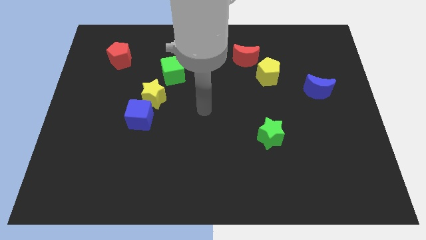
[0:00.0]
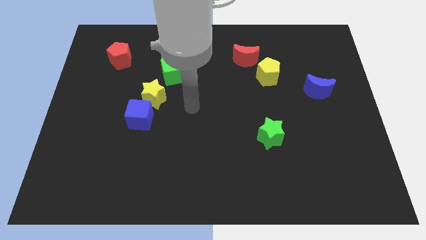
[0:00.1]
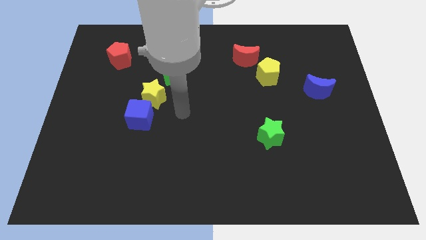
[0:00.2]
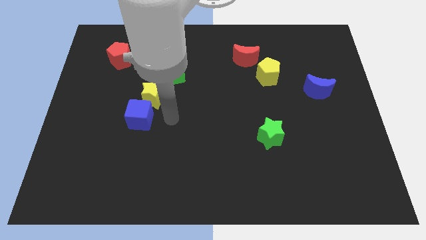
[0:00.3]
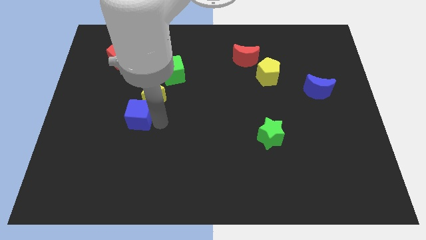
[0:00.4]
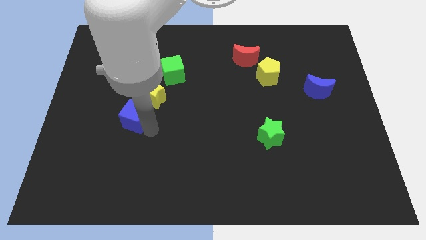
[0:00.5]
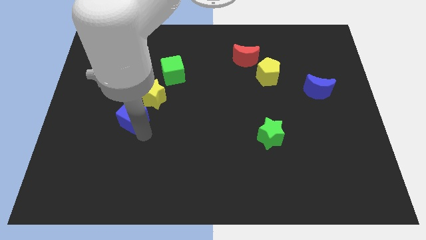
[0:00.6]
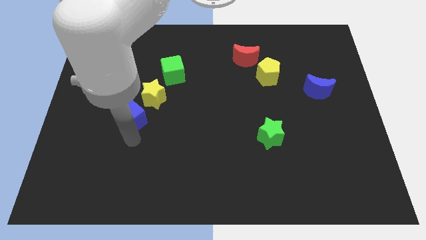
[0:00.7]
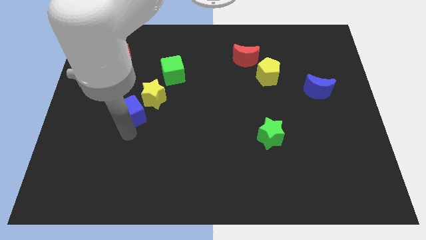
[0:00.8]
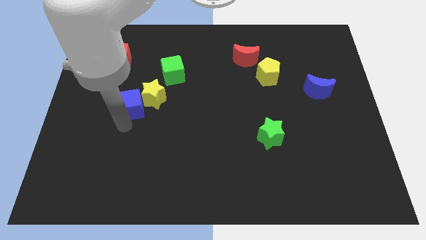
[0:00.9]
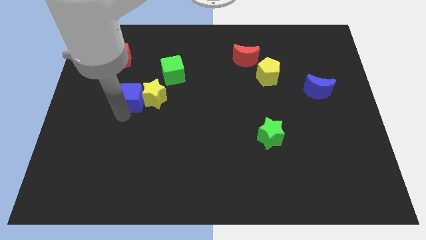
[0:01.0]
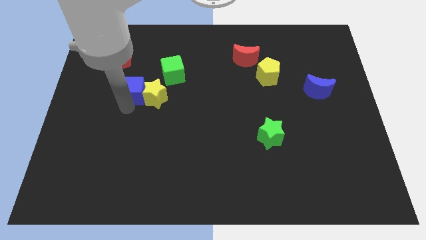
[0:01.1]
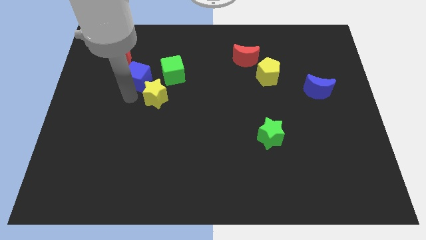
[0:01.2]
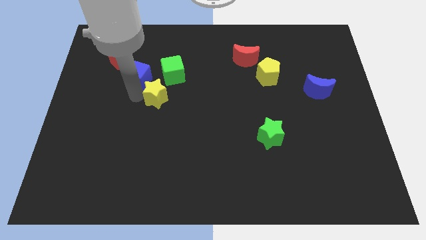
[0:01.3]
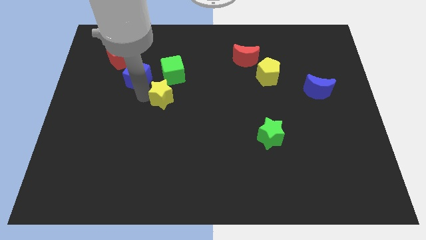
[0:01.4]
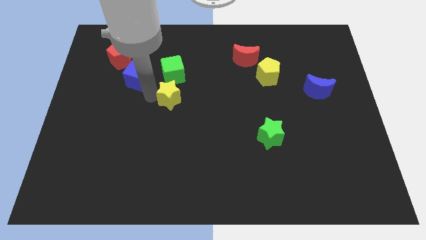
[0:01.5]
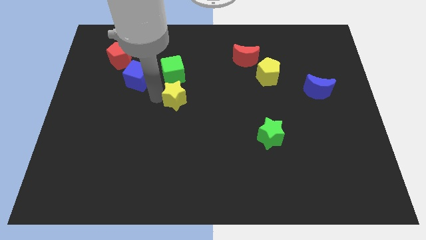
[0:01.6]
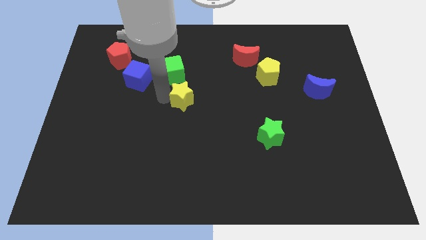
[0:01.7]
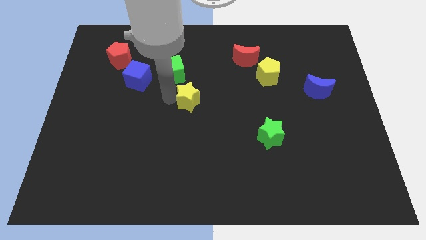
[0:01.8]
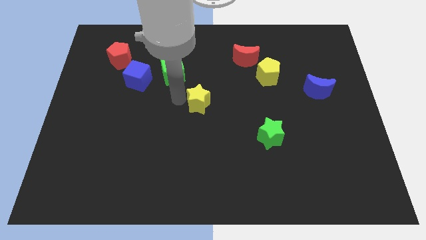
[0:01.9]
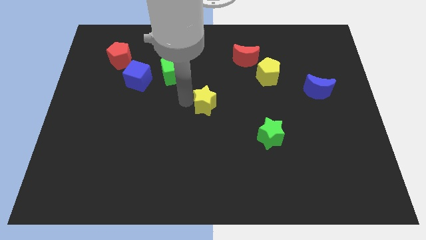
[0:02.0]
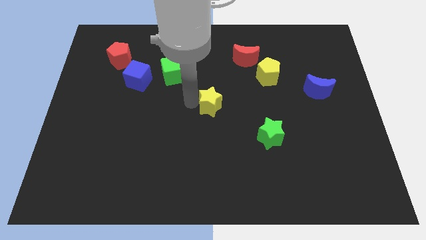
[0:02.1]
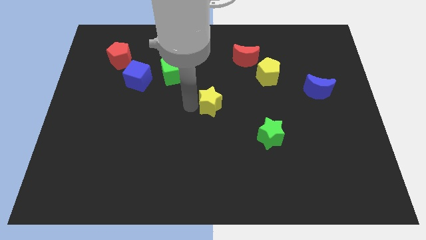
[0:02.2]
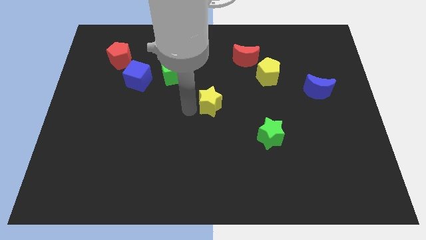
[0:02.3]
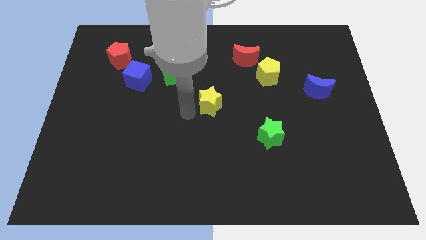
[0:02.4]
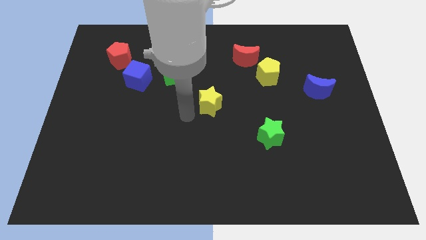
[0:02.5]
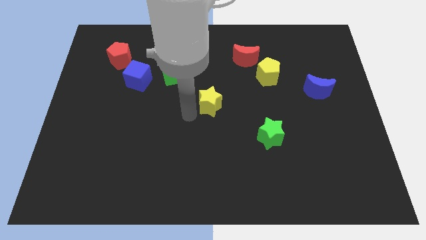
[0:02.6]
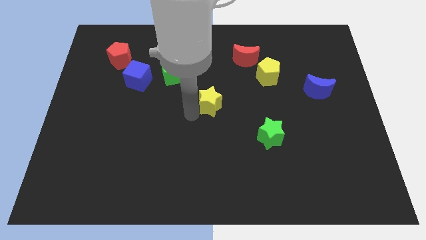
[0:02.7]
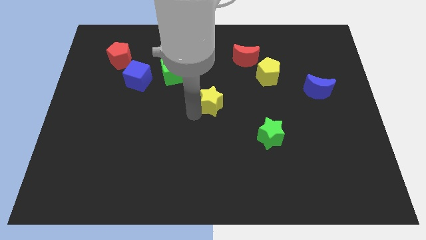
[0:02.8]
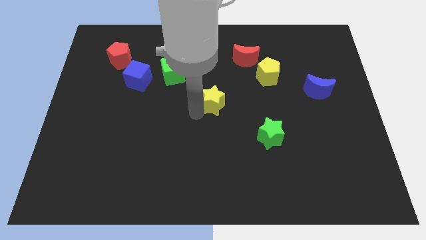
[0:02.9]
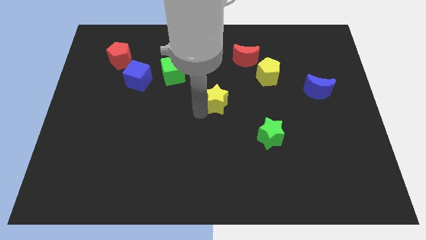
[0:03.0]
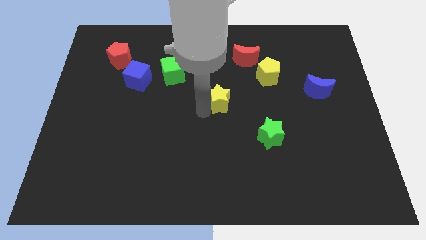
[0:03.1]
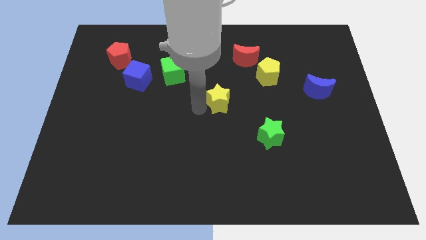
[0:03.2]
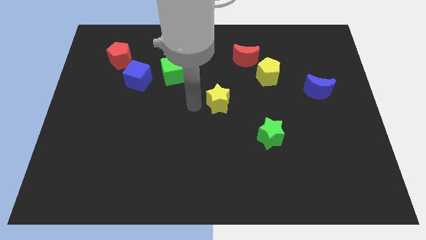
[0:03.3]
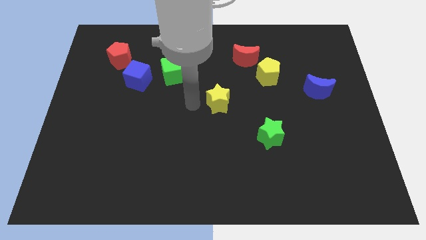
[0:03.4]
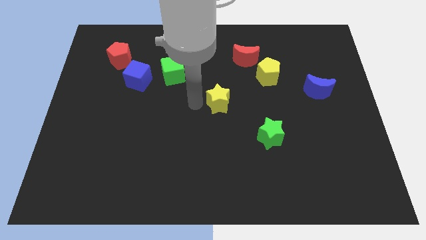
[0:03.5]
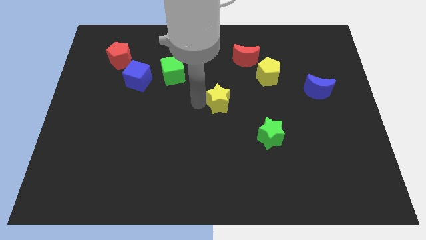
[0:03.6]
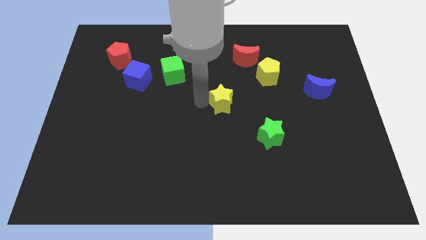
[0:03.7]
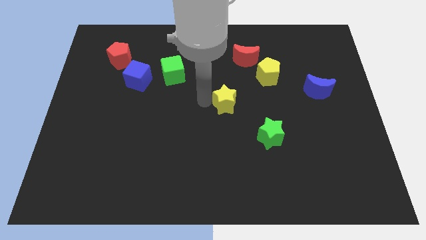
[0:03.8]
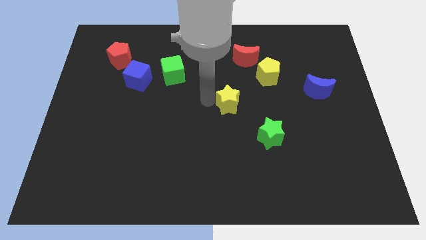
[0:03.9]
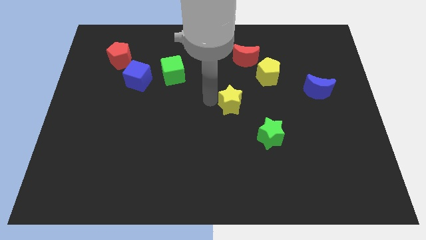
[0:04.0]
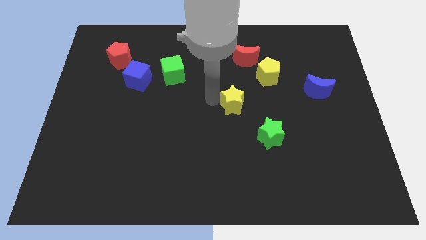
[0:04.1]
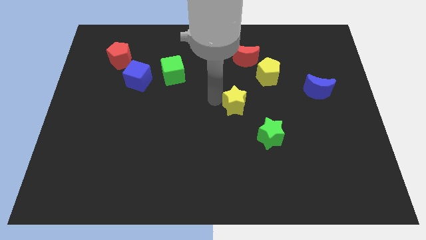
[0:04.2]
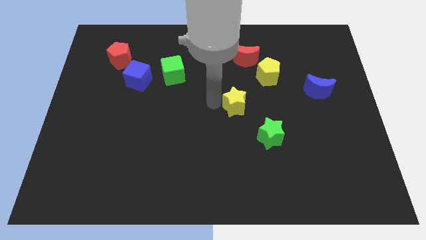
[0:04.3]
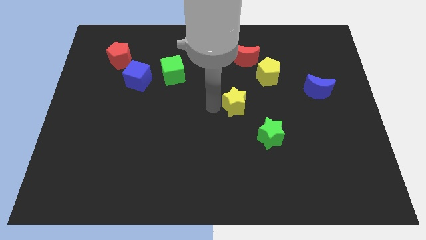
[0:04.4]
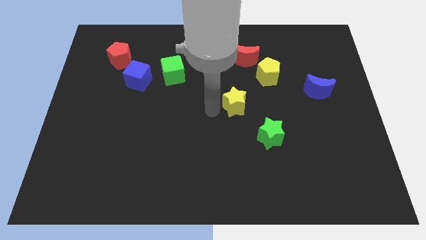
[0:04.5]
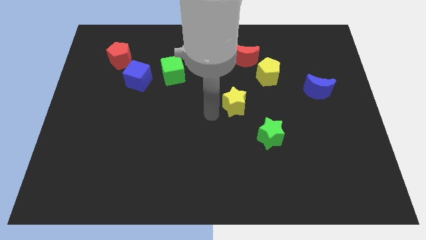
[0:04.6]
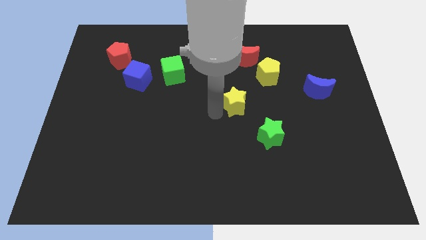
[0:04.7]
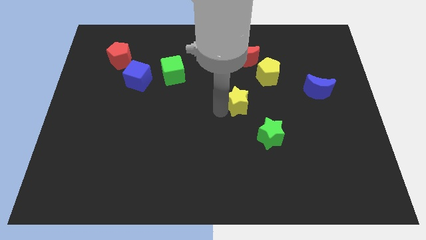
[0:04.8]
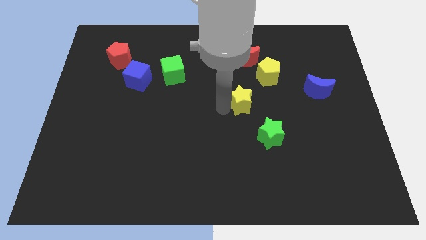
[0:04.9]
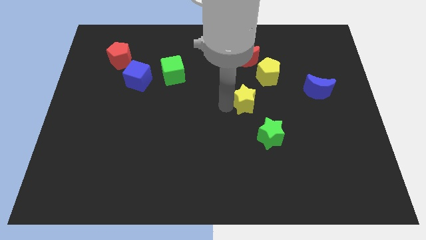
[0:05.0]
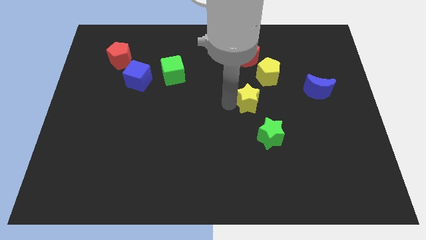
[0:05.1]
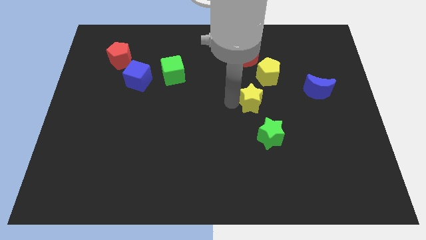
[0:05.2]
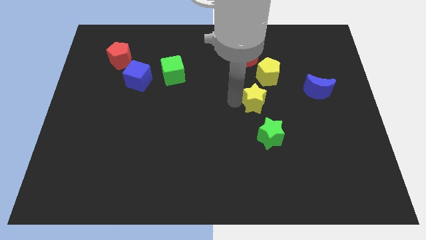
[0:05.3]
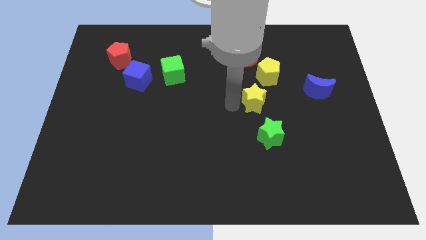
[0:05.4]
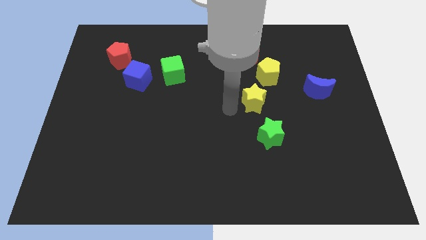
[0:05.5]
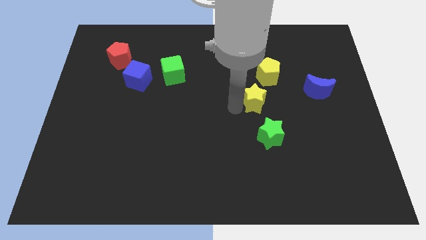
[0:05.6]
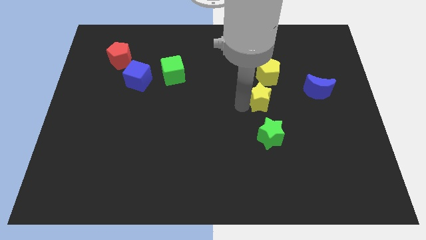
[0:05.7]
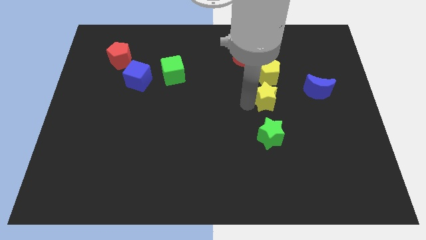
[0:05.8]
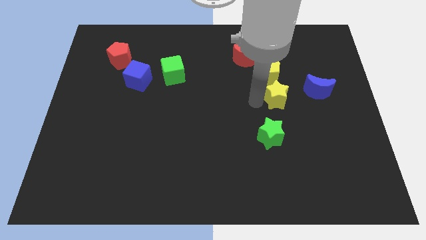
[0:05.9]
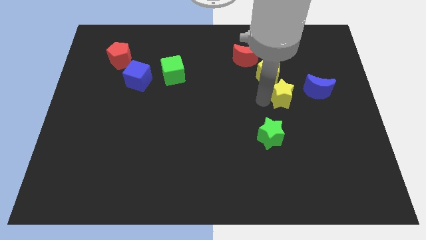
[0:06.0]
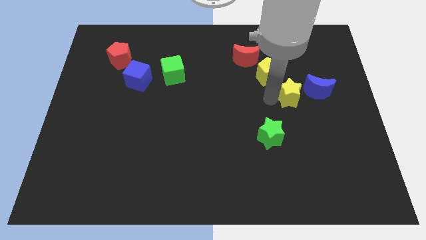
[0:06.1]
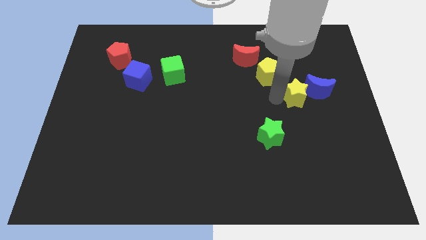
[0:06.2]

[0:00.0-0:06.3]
move the yellow star next to the blue moon

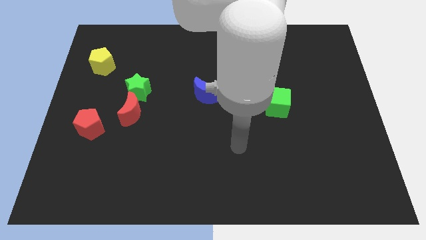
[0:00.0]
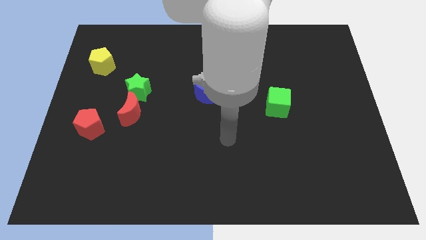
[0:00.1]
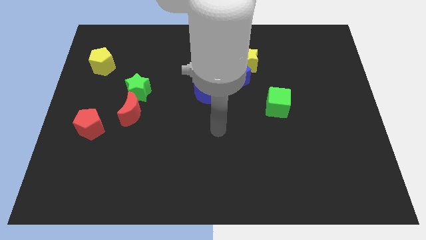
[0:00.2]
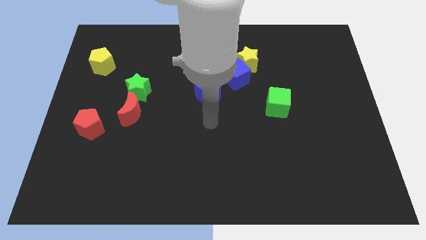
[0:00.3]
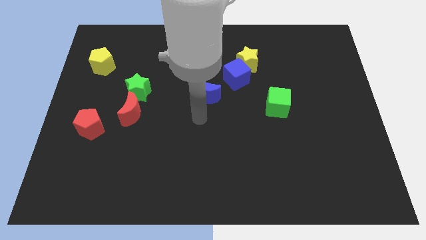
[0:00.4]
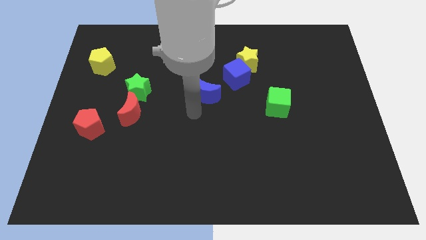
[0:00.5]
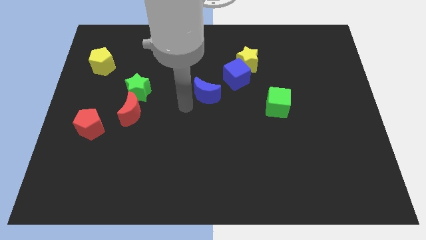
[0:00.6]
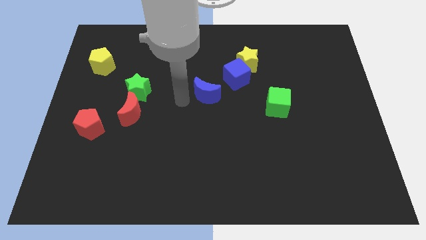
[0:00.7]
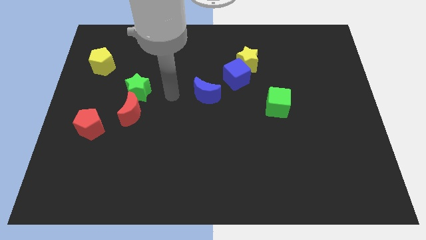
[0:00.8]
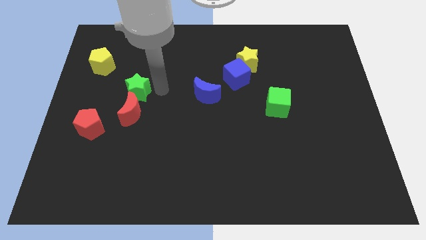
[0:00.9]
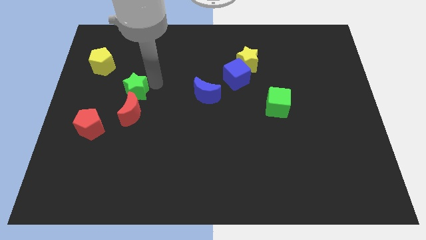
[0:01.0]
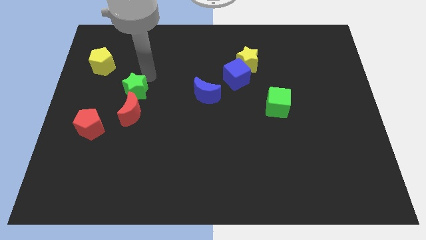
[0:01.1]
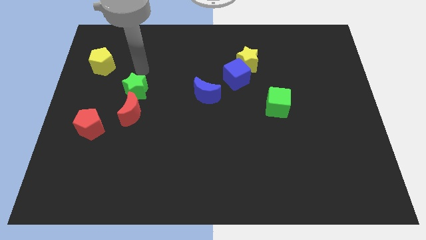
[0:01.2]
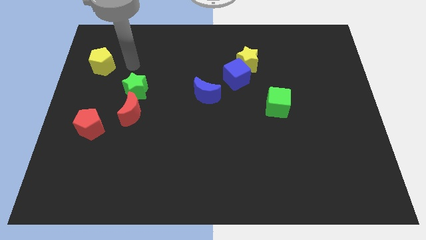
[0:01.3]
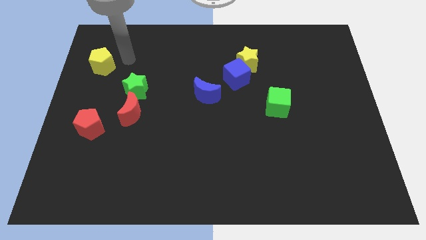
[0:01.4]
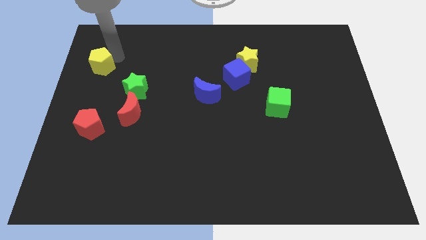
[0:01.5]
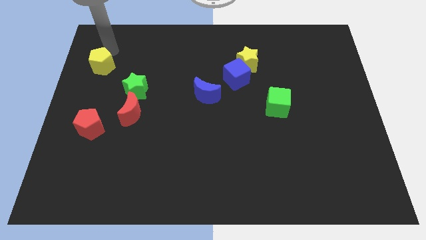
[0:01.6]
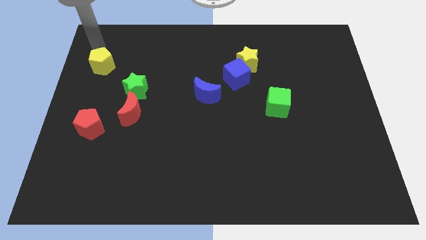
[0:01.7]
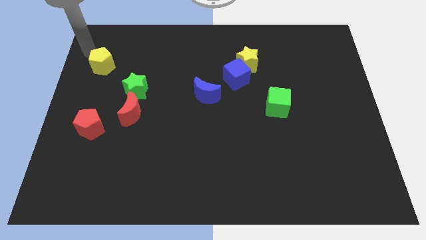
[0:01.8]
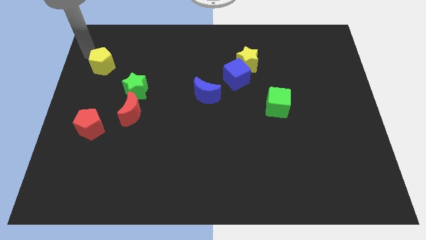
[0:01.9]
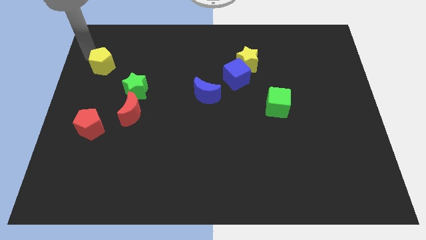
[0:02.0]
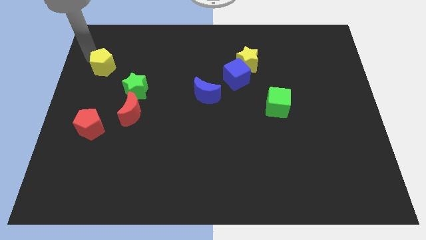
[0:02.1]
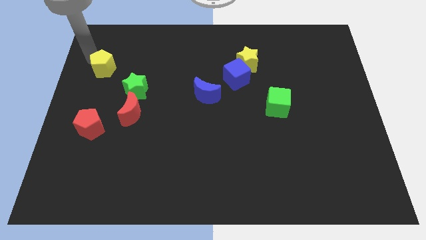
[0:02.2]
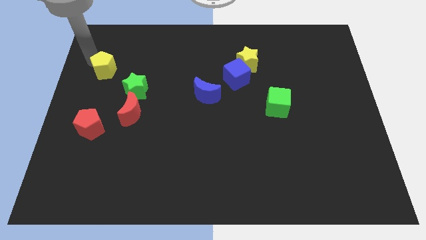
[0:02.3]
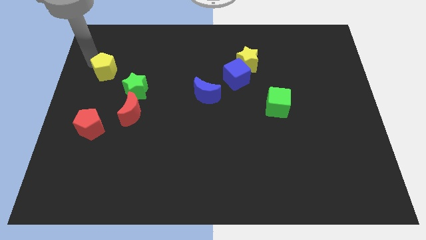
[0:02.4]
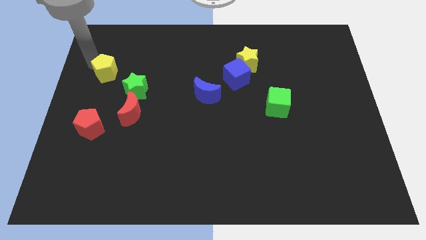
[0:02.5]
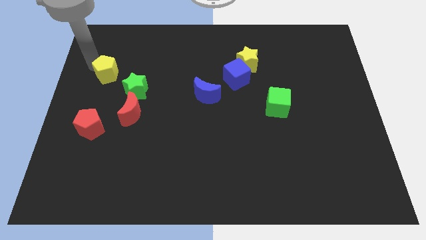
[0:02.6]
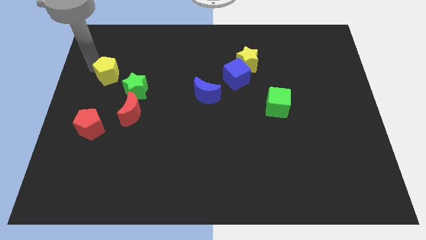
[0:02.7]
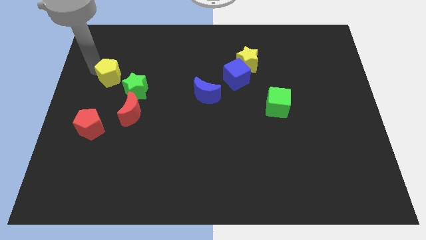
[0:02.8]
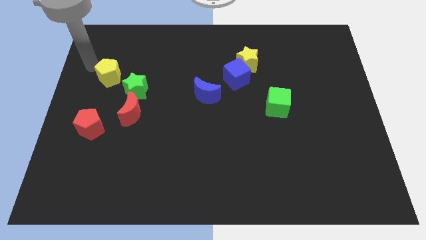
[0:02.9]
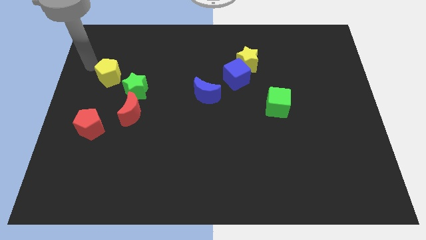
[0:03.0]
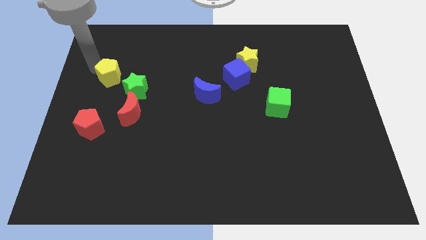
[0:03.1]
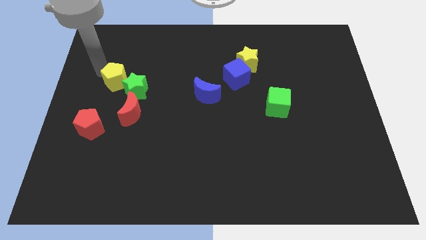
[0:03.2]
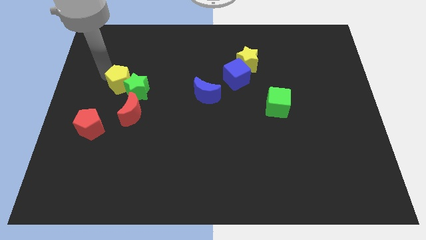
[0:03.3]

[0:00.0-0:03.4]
slide the yellow pentagon next to the green star
